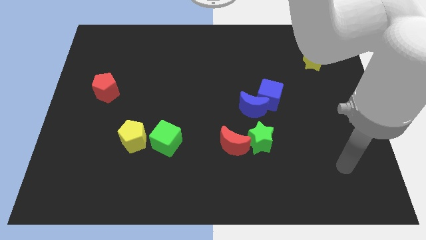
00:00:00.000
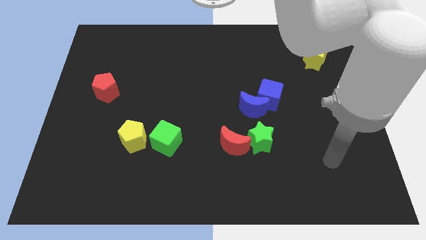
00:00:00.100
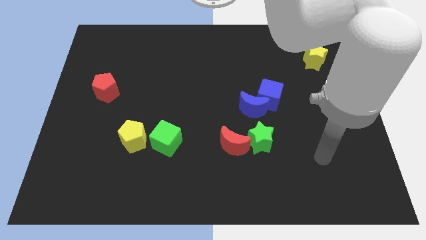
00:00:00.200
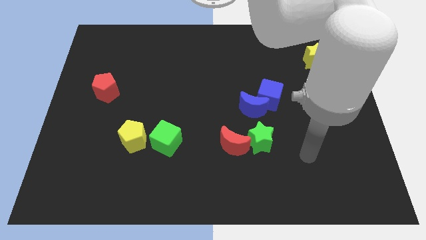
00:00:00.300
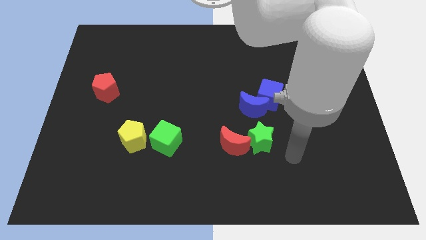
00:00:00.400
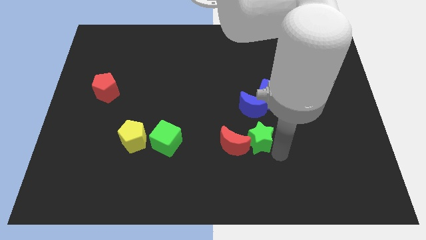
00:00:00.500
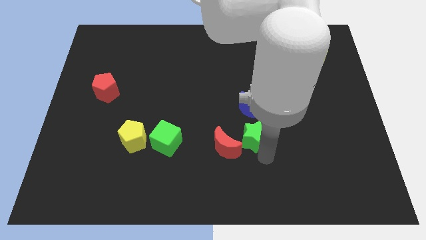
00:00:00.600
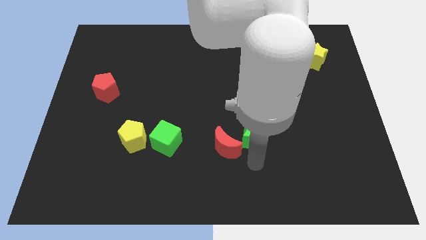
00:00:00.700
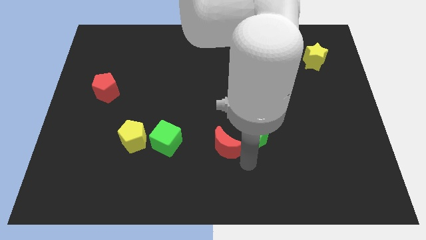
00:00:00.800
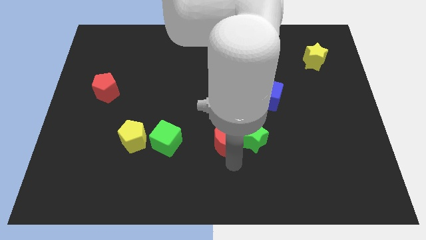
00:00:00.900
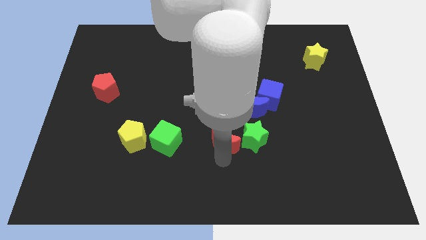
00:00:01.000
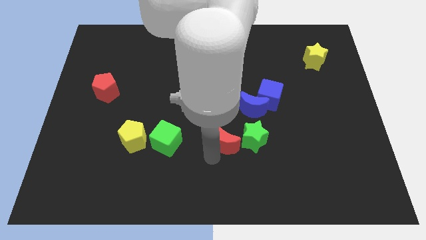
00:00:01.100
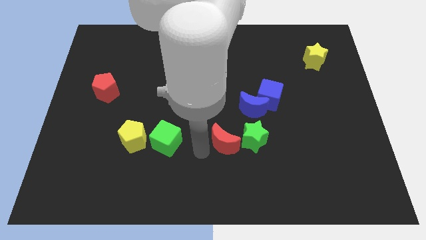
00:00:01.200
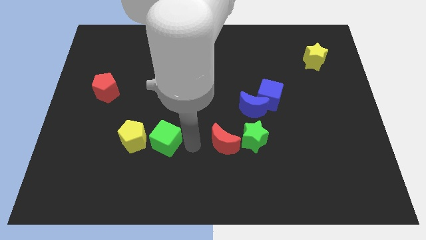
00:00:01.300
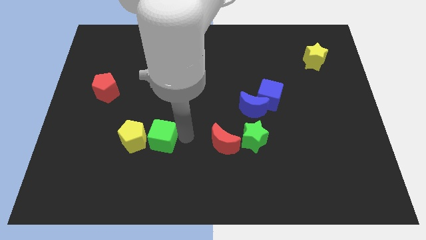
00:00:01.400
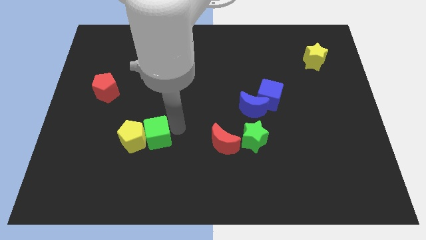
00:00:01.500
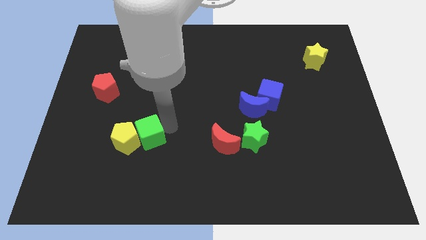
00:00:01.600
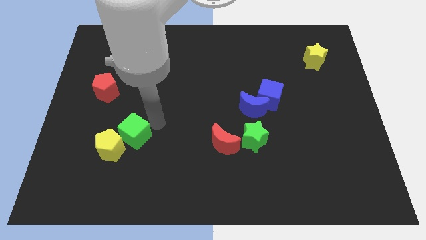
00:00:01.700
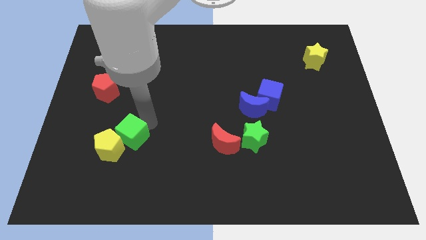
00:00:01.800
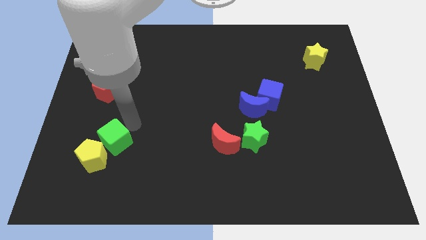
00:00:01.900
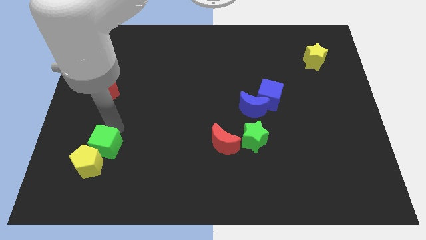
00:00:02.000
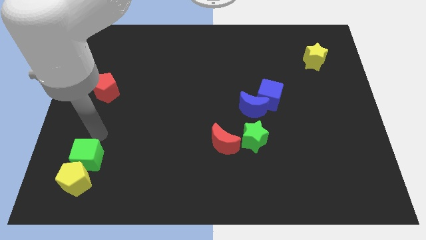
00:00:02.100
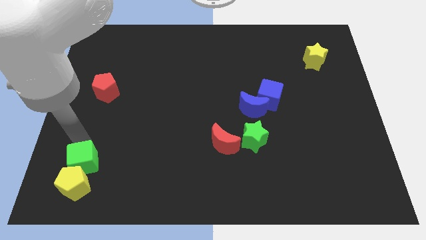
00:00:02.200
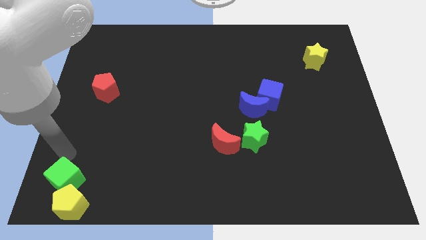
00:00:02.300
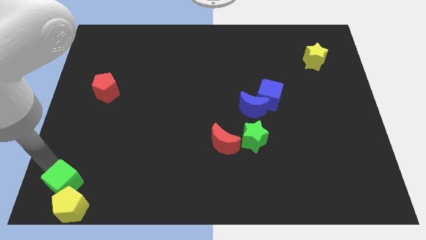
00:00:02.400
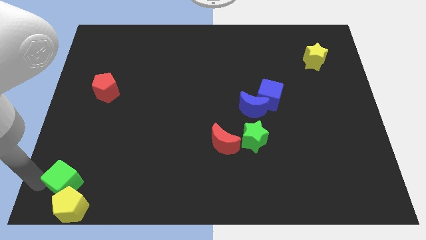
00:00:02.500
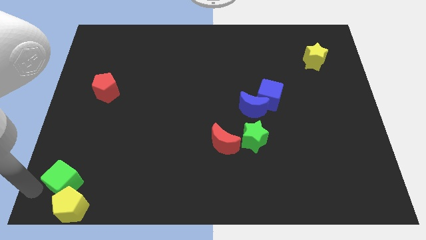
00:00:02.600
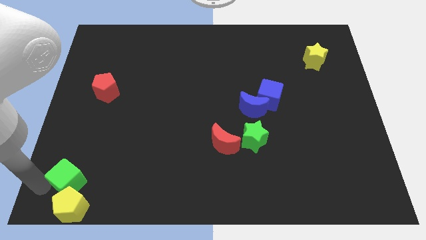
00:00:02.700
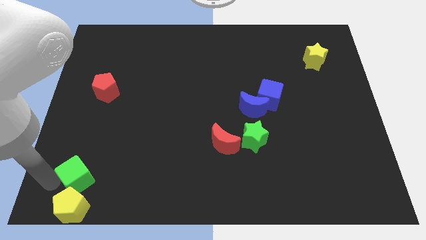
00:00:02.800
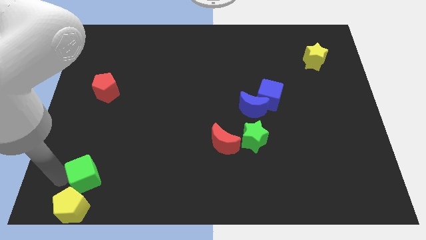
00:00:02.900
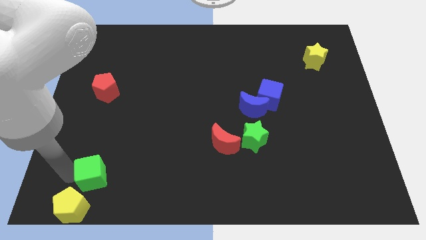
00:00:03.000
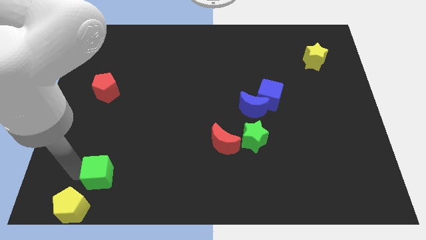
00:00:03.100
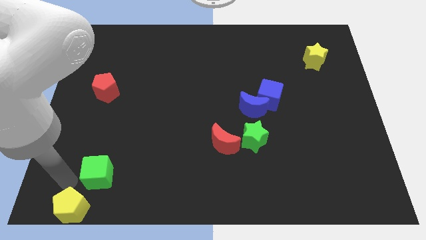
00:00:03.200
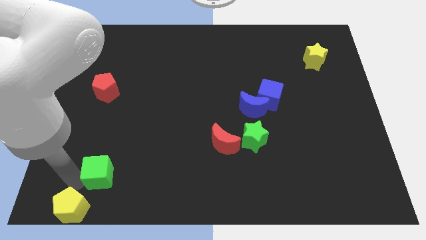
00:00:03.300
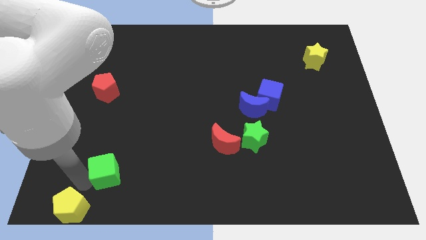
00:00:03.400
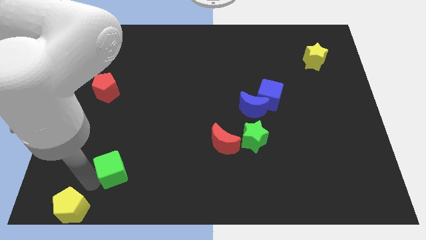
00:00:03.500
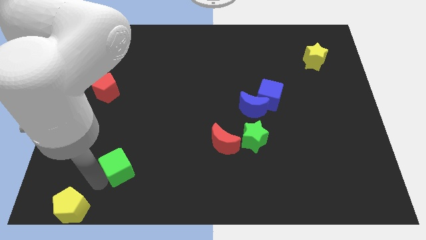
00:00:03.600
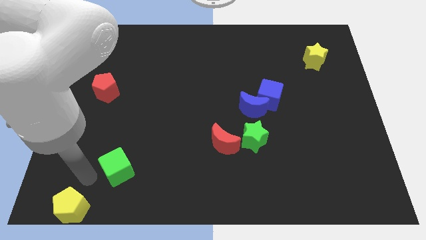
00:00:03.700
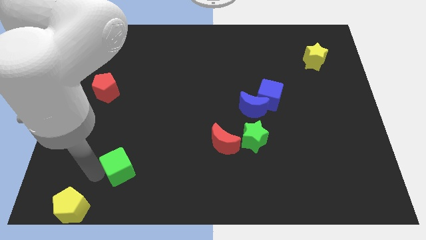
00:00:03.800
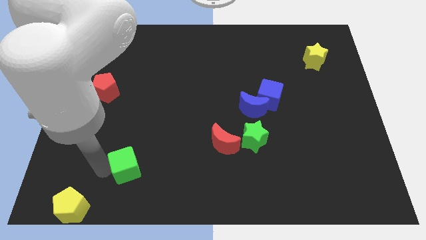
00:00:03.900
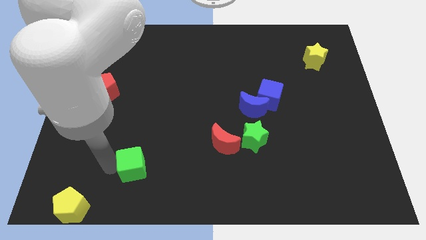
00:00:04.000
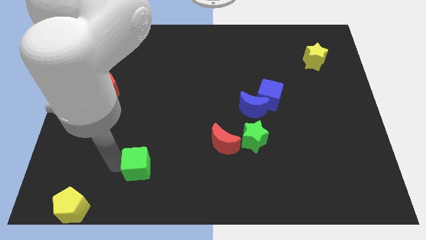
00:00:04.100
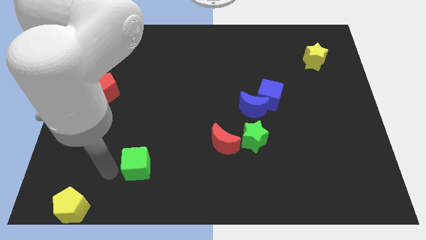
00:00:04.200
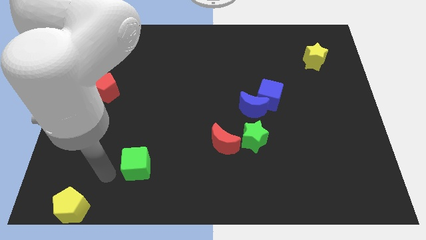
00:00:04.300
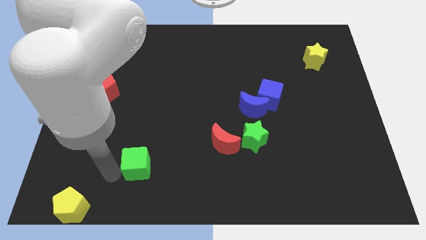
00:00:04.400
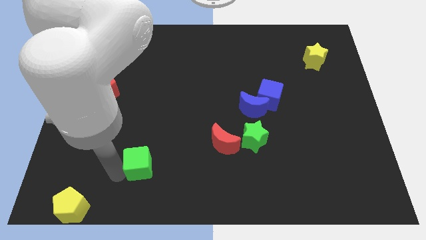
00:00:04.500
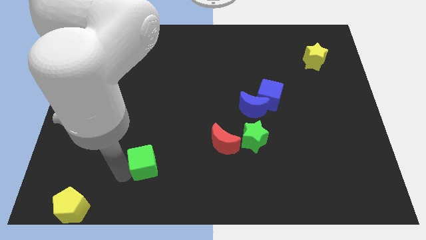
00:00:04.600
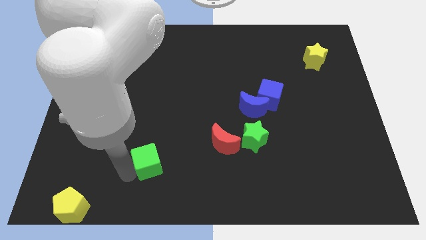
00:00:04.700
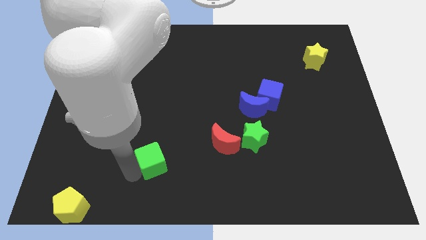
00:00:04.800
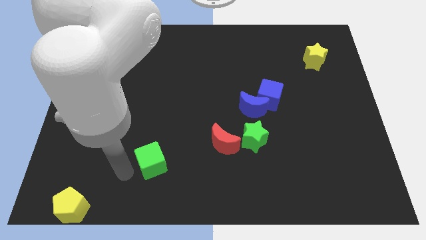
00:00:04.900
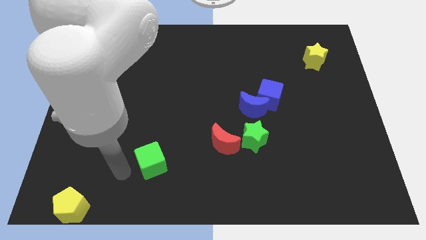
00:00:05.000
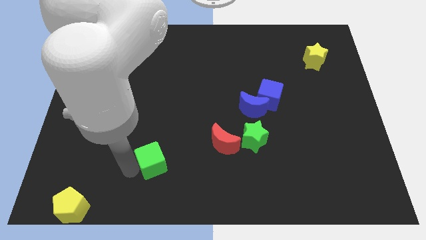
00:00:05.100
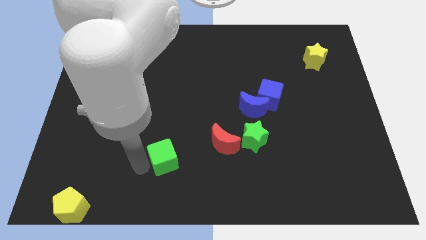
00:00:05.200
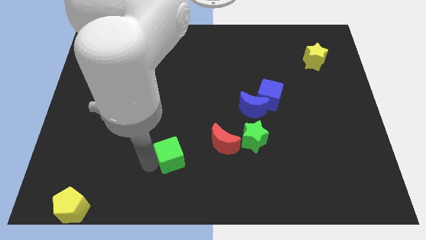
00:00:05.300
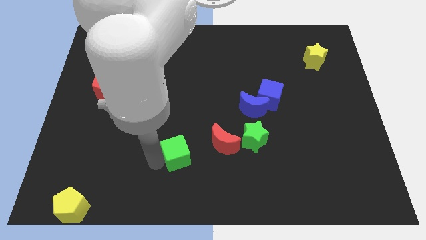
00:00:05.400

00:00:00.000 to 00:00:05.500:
push the green cube to the bottom left of the red moon

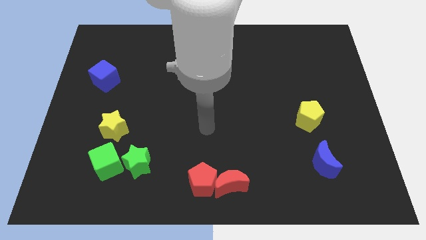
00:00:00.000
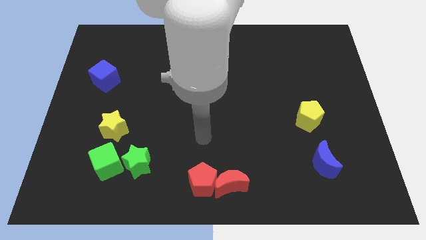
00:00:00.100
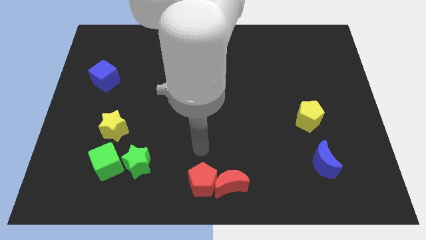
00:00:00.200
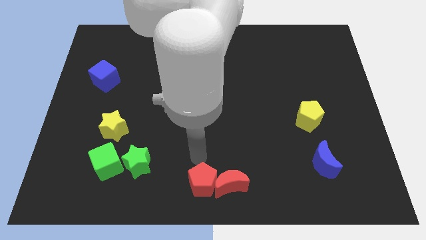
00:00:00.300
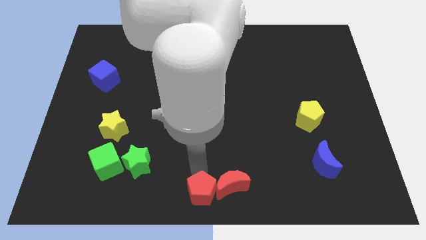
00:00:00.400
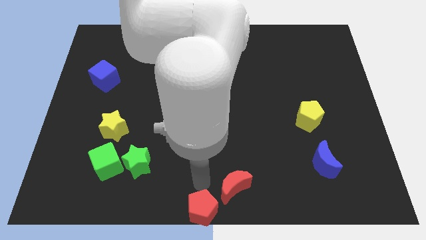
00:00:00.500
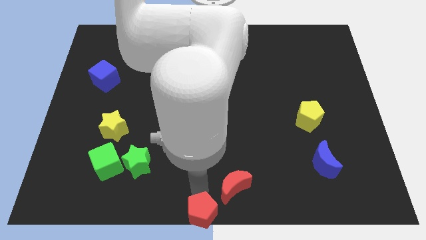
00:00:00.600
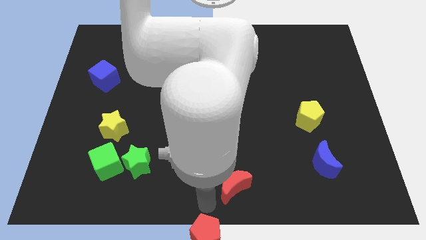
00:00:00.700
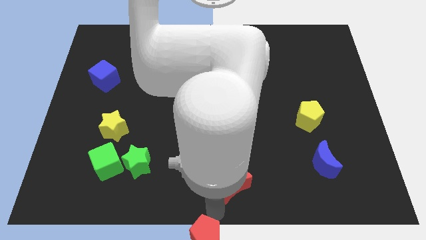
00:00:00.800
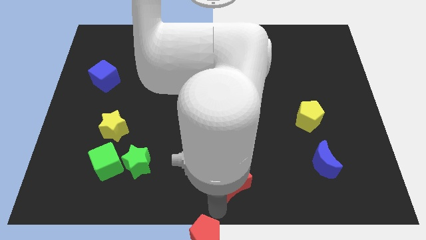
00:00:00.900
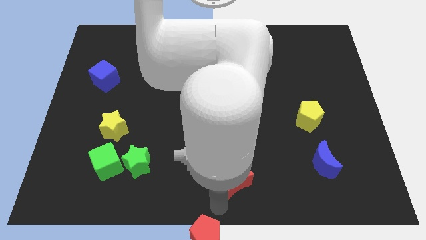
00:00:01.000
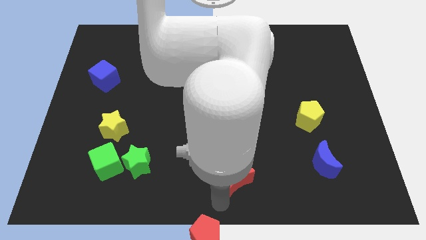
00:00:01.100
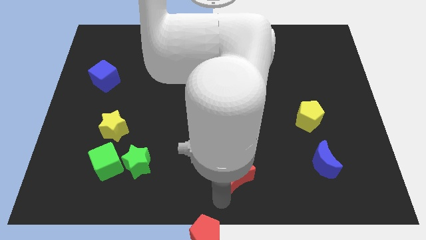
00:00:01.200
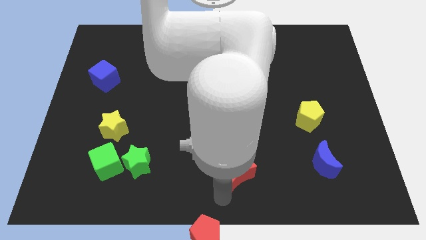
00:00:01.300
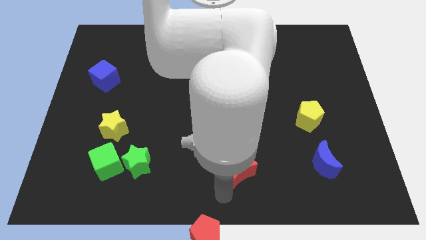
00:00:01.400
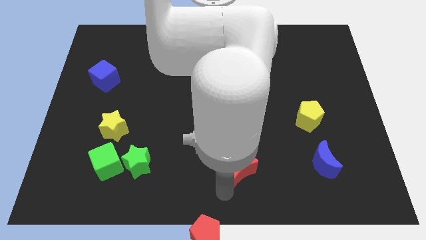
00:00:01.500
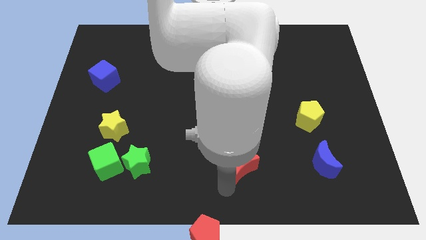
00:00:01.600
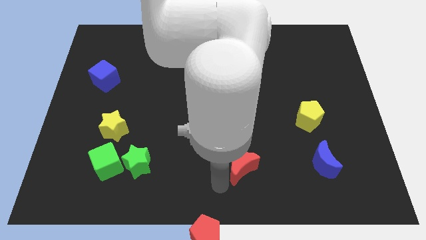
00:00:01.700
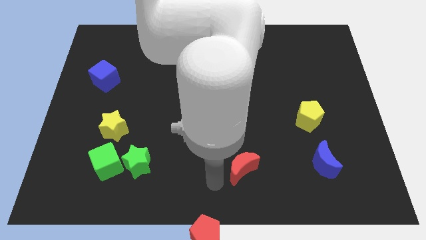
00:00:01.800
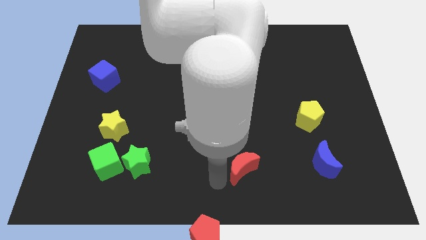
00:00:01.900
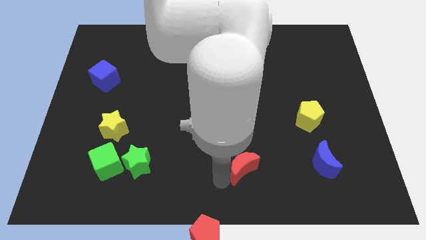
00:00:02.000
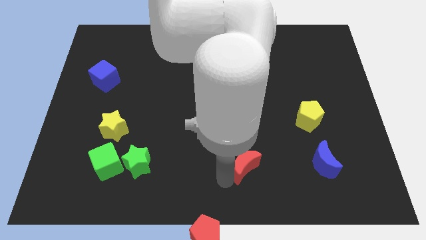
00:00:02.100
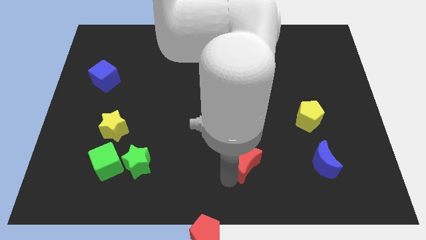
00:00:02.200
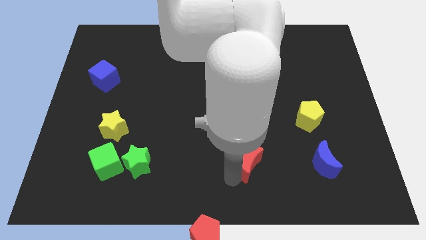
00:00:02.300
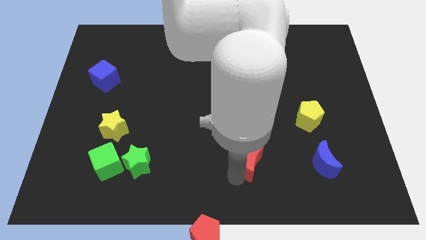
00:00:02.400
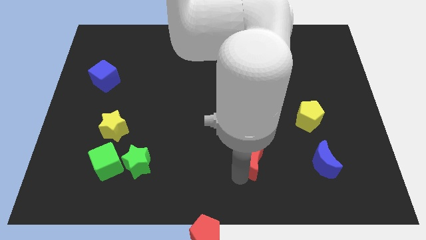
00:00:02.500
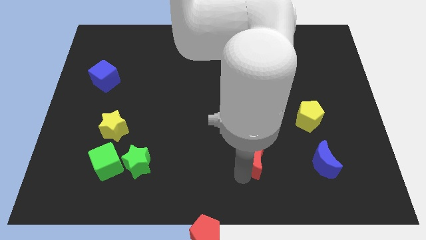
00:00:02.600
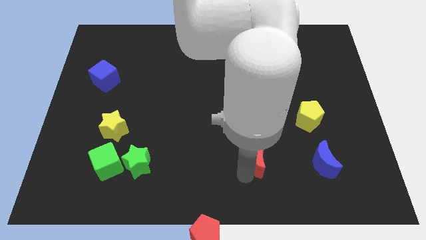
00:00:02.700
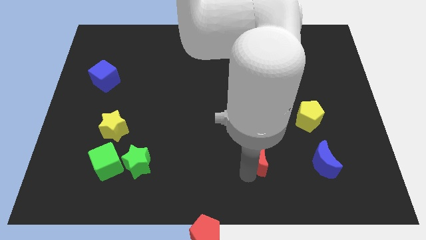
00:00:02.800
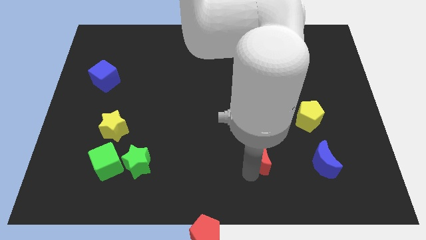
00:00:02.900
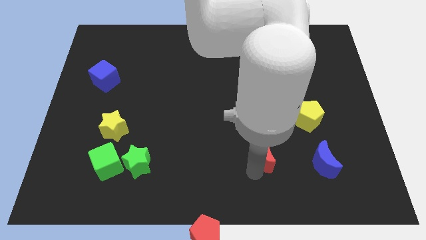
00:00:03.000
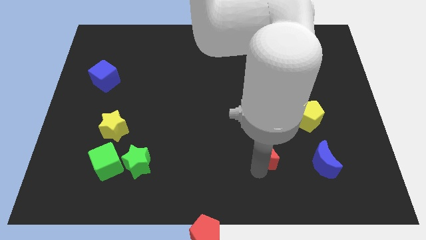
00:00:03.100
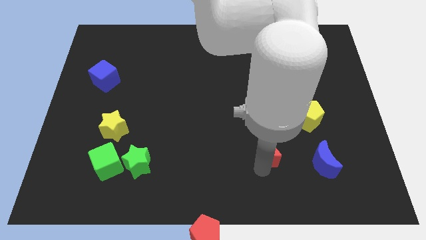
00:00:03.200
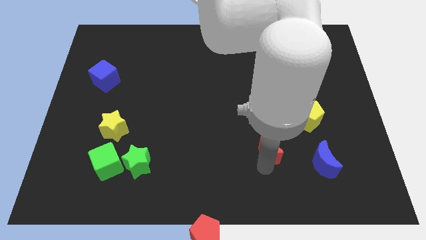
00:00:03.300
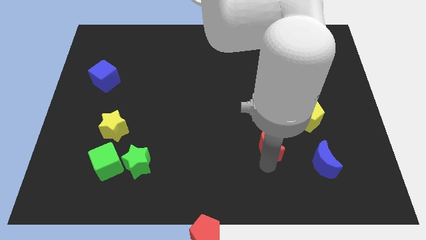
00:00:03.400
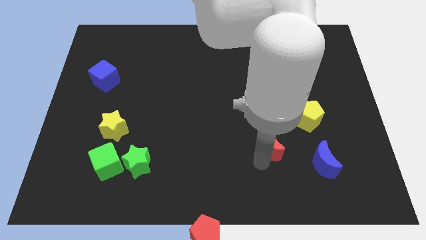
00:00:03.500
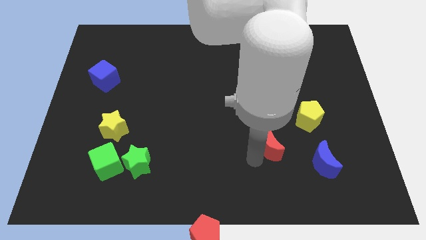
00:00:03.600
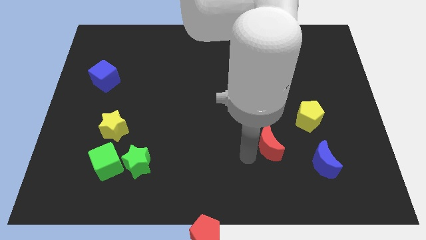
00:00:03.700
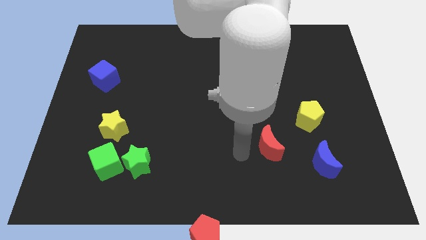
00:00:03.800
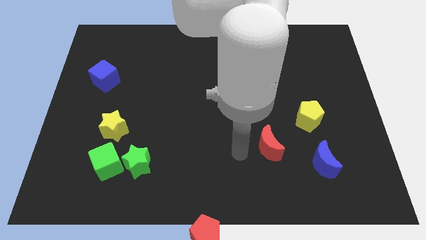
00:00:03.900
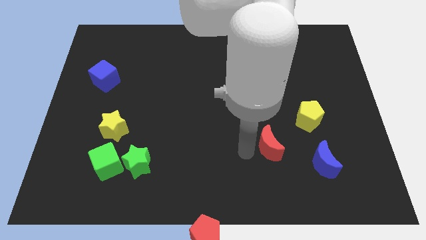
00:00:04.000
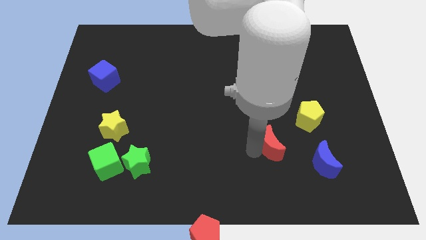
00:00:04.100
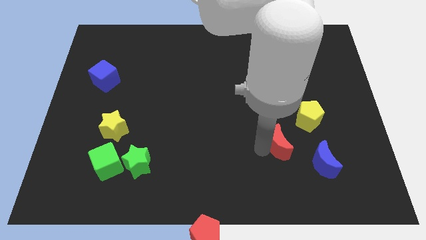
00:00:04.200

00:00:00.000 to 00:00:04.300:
push the red moon to the top left side of the blue moon
